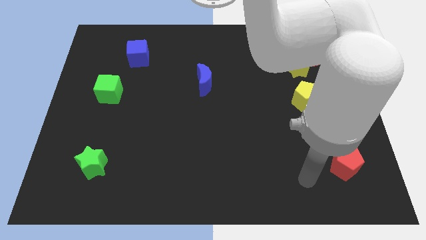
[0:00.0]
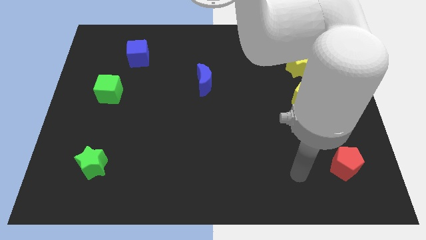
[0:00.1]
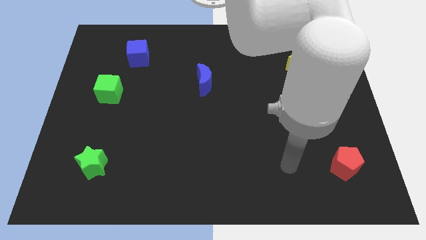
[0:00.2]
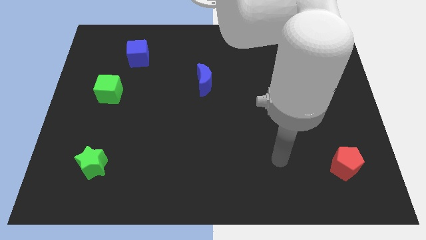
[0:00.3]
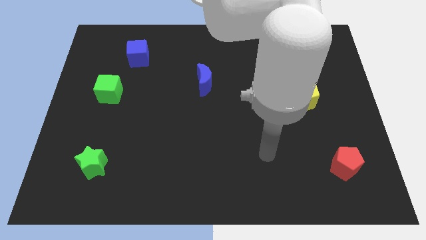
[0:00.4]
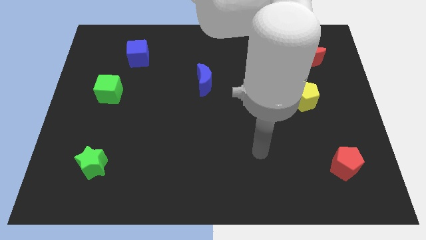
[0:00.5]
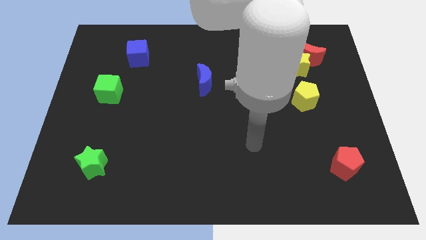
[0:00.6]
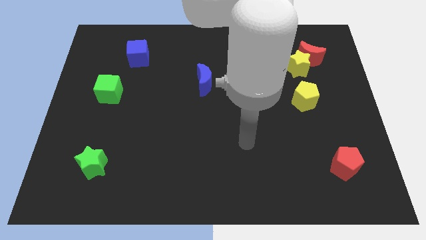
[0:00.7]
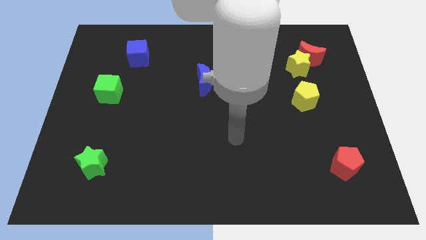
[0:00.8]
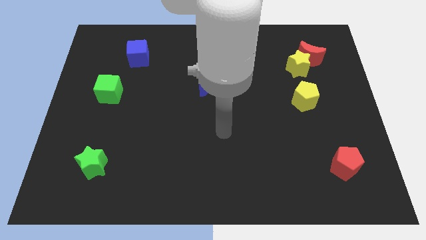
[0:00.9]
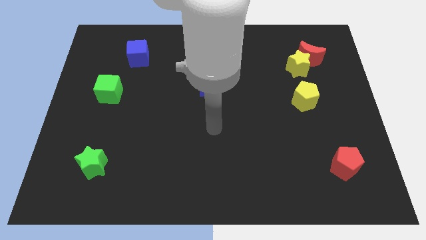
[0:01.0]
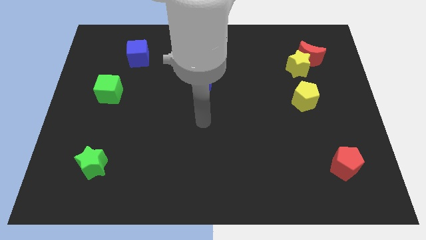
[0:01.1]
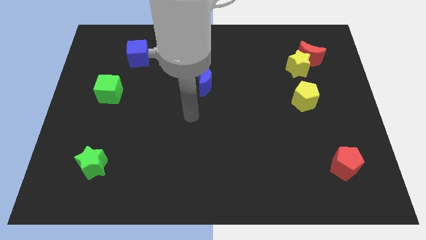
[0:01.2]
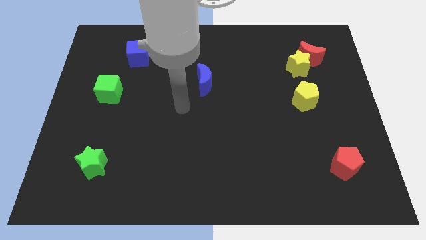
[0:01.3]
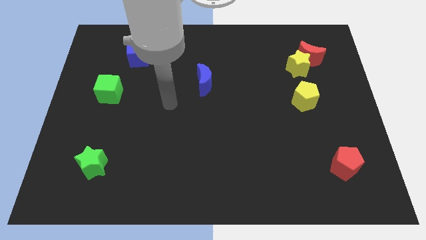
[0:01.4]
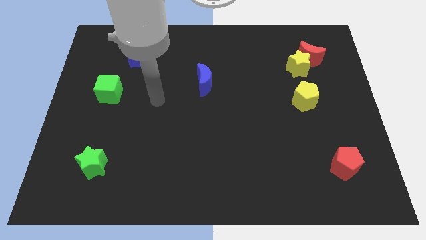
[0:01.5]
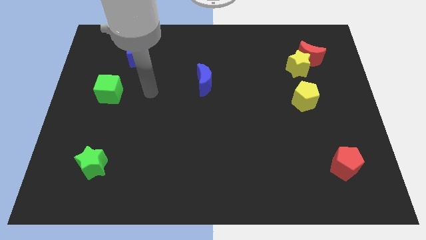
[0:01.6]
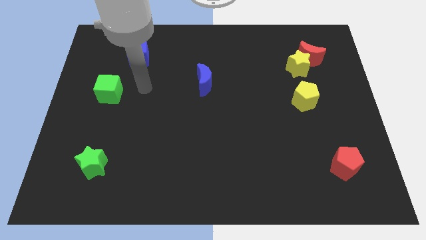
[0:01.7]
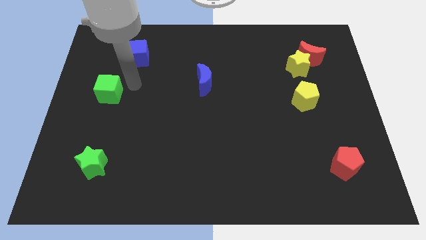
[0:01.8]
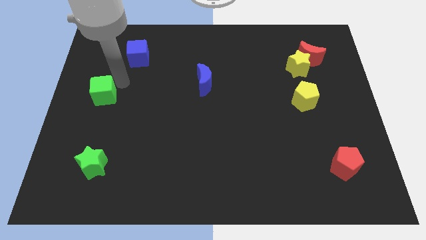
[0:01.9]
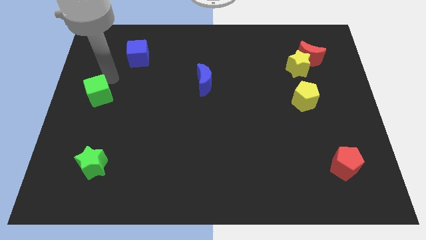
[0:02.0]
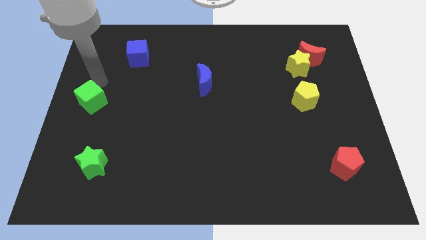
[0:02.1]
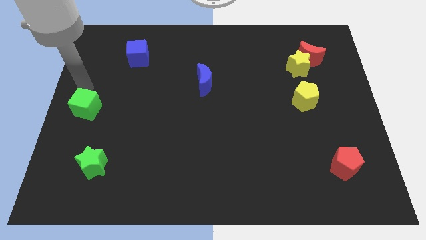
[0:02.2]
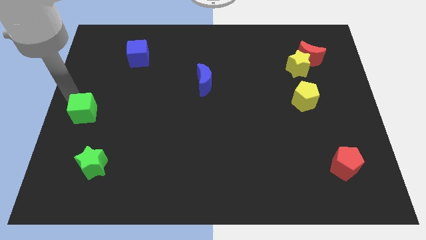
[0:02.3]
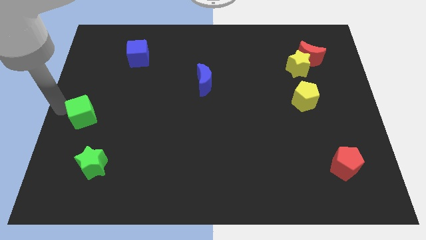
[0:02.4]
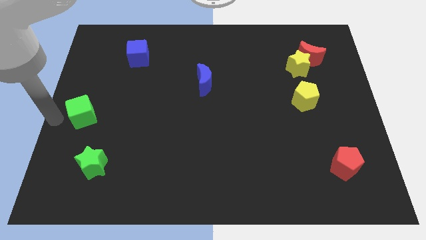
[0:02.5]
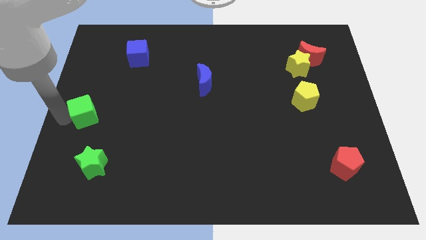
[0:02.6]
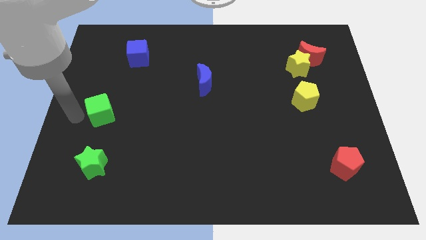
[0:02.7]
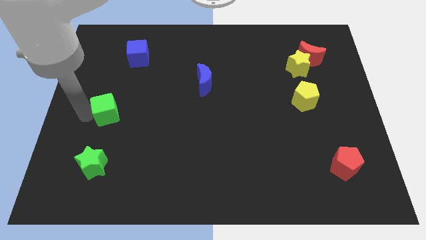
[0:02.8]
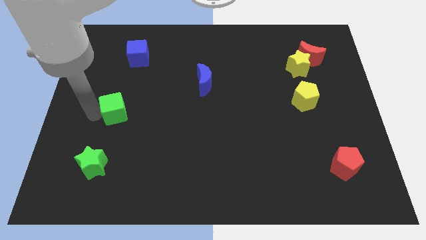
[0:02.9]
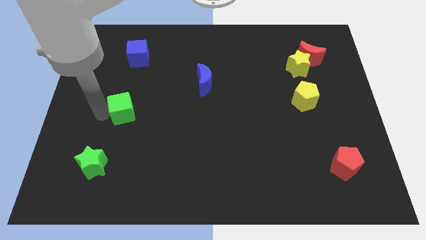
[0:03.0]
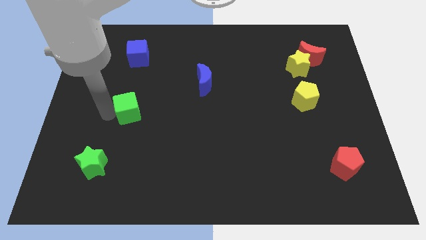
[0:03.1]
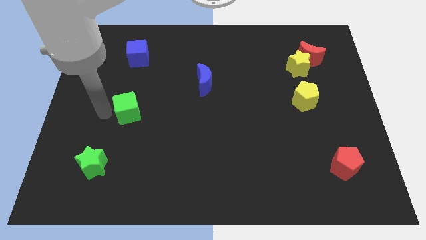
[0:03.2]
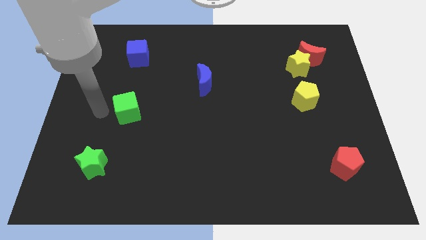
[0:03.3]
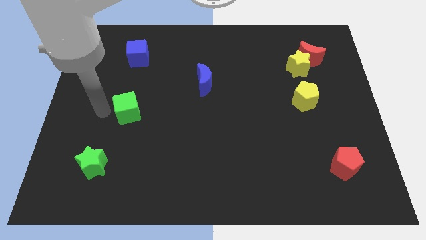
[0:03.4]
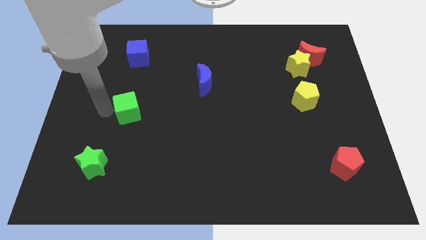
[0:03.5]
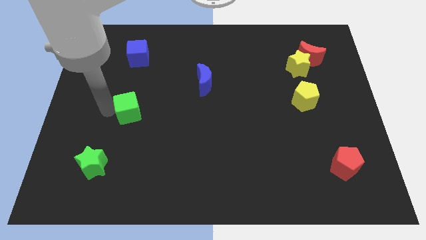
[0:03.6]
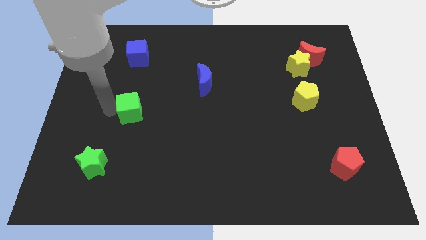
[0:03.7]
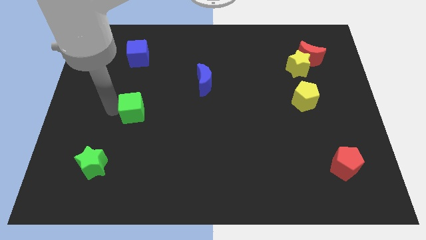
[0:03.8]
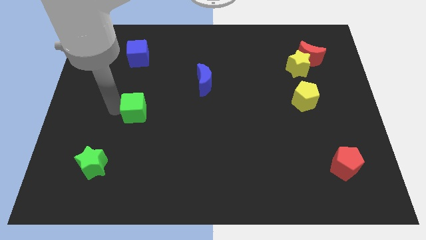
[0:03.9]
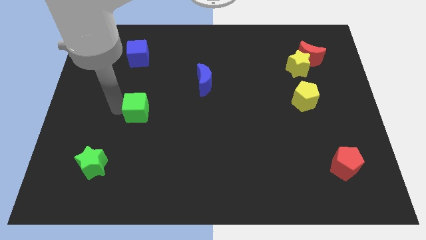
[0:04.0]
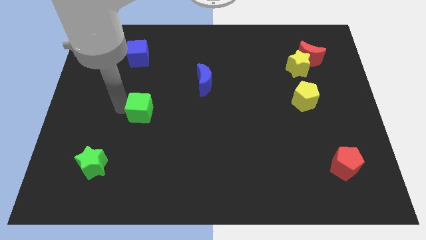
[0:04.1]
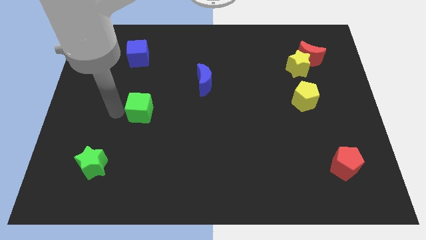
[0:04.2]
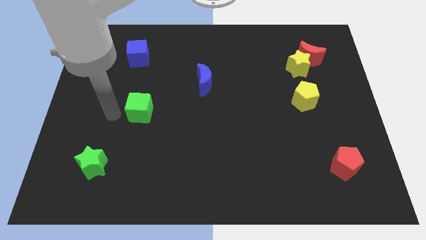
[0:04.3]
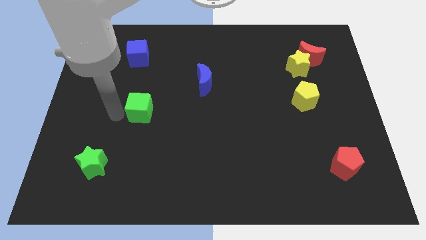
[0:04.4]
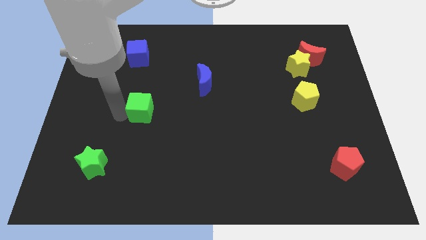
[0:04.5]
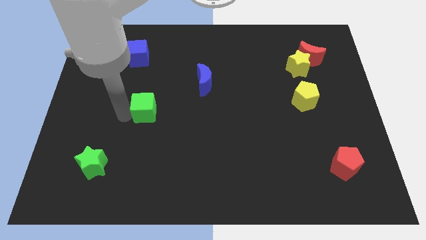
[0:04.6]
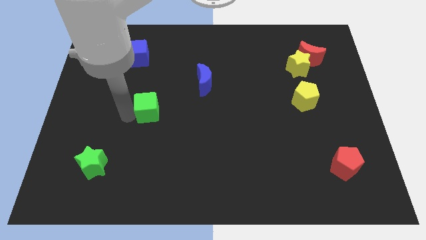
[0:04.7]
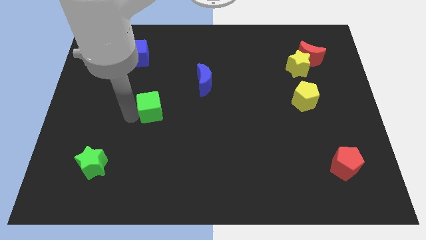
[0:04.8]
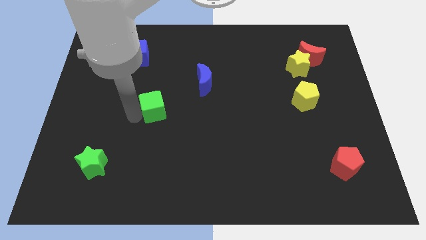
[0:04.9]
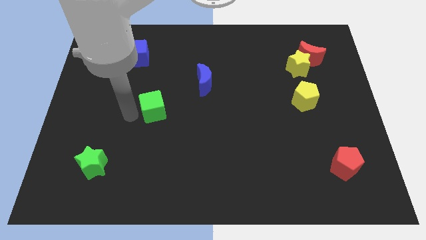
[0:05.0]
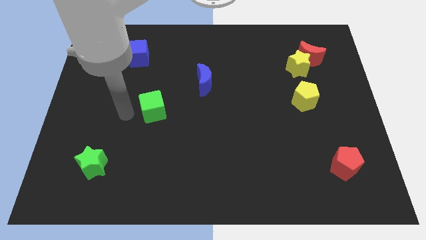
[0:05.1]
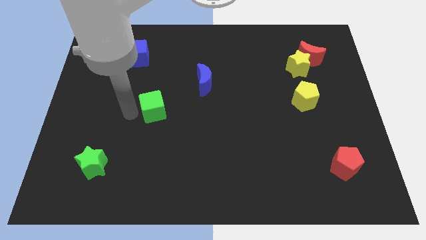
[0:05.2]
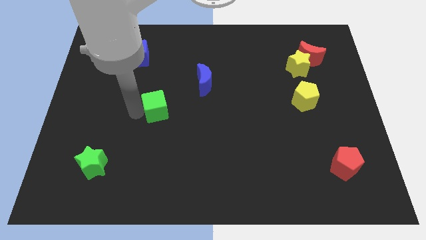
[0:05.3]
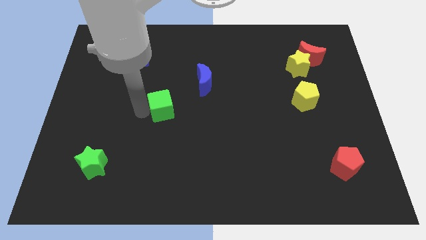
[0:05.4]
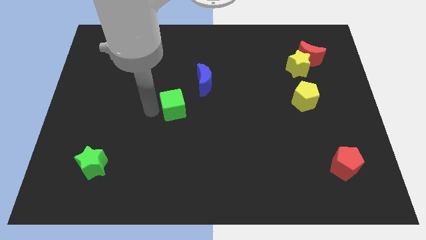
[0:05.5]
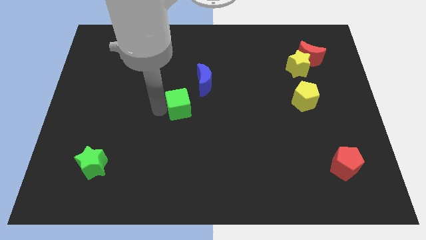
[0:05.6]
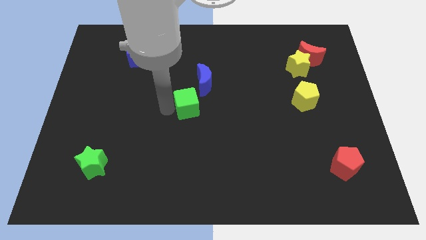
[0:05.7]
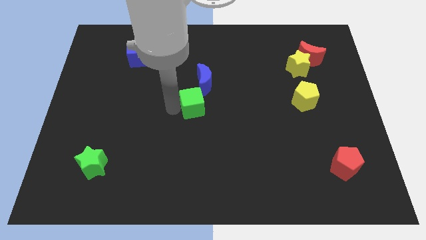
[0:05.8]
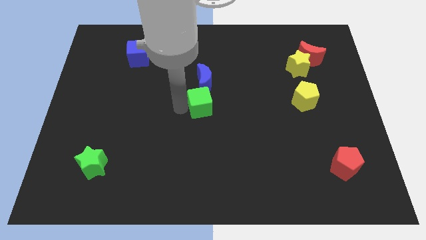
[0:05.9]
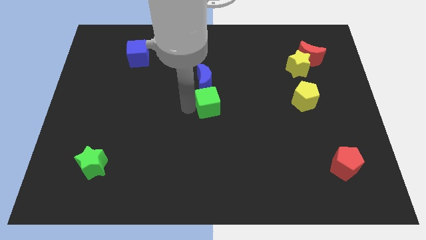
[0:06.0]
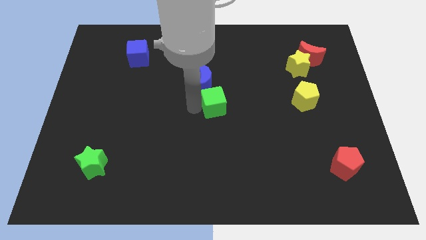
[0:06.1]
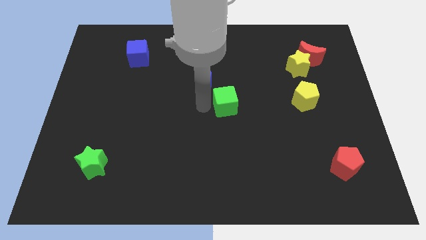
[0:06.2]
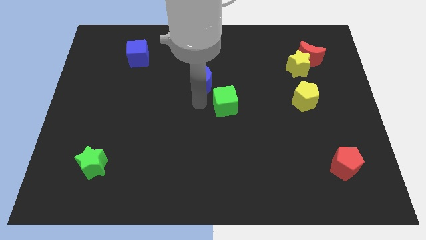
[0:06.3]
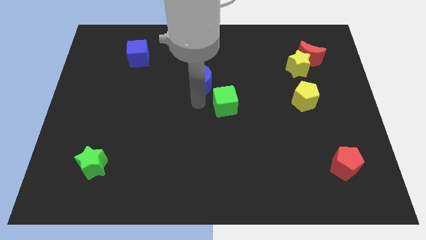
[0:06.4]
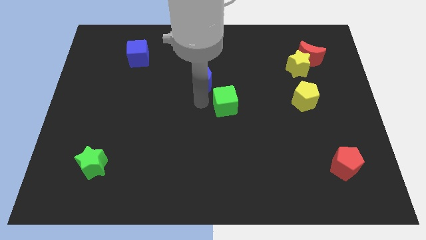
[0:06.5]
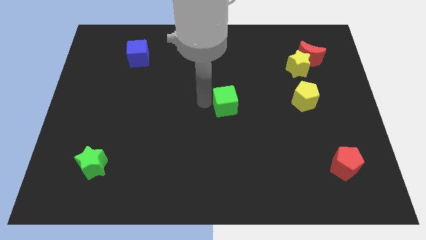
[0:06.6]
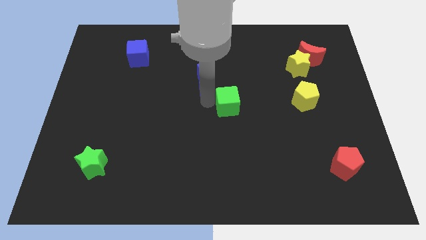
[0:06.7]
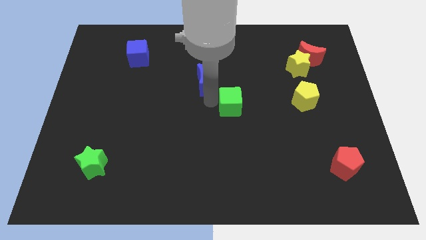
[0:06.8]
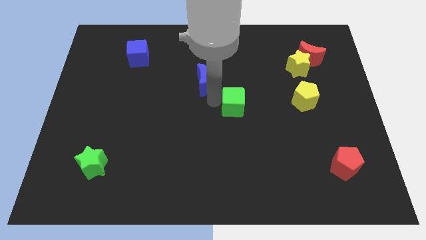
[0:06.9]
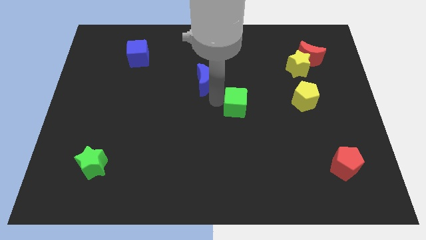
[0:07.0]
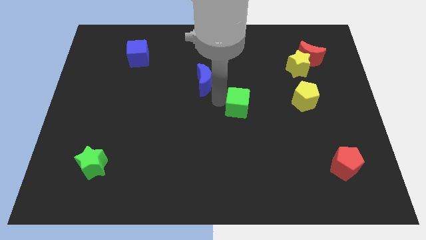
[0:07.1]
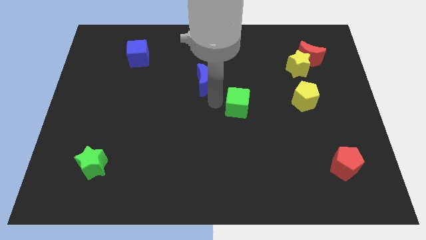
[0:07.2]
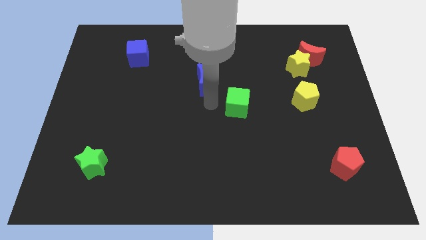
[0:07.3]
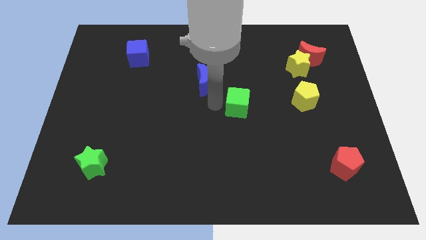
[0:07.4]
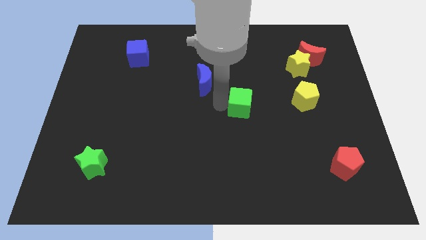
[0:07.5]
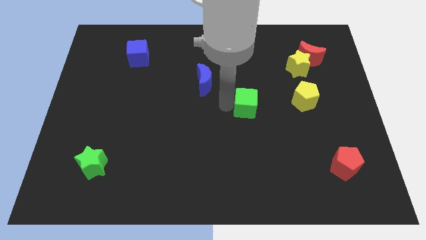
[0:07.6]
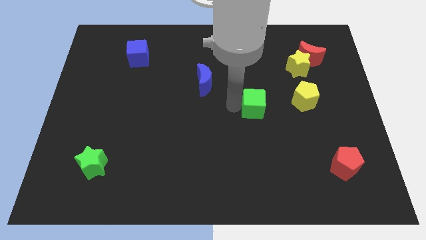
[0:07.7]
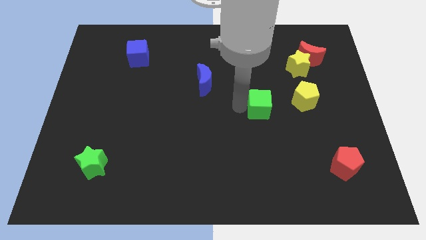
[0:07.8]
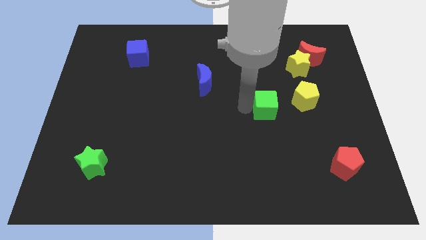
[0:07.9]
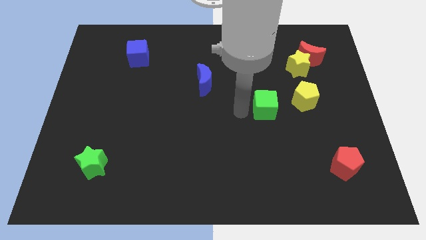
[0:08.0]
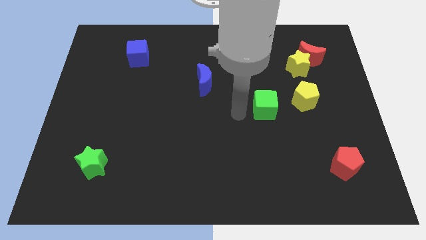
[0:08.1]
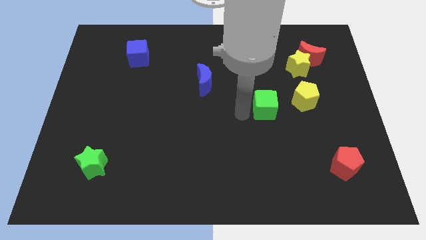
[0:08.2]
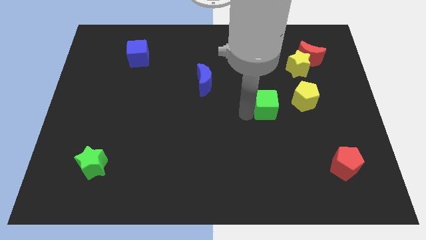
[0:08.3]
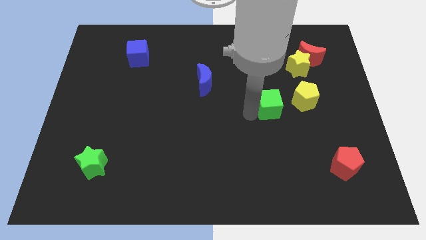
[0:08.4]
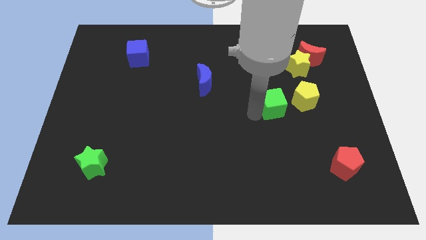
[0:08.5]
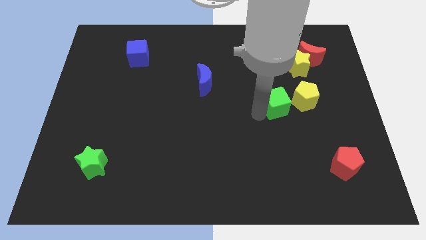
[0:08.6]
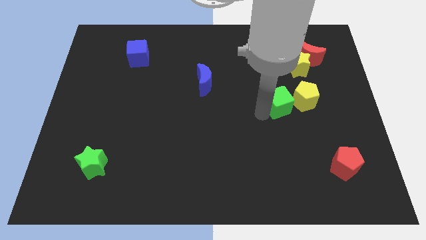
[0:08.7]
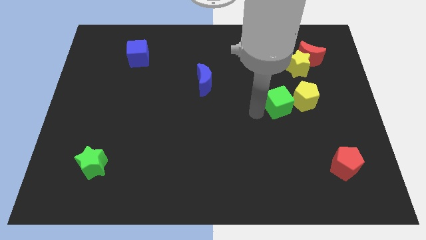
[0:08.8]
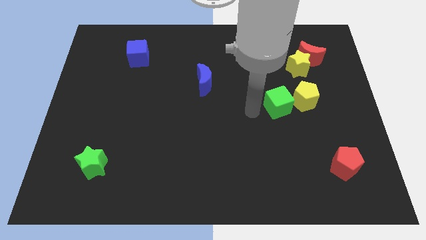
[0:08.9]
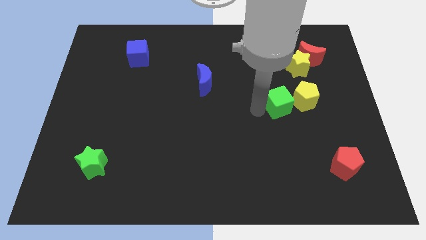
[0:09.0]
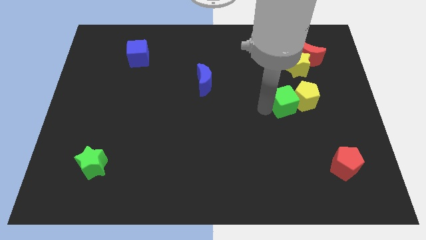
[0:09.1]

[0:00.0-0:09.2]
put the green cube next to the yellow pentagon
